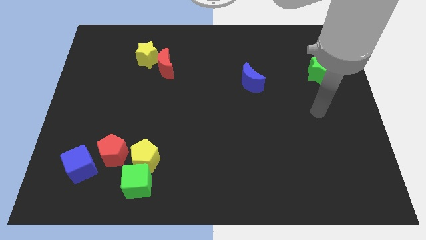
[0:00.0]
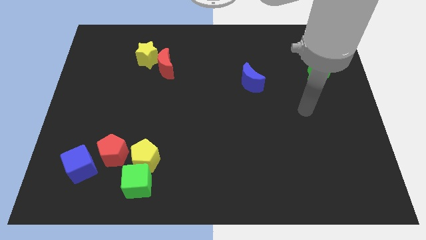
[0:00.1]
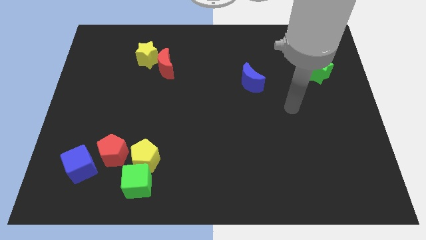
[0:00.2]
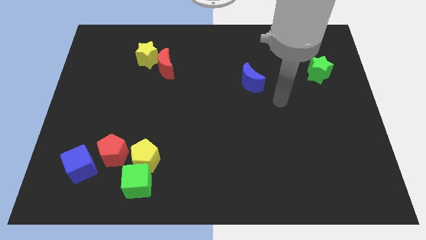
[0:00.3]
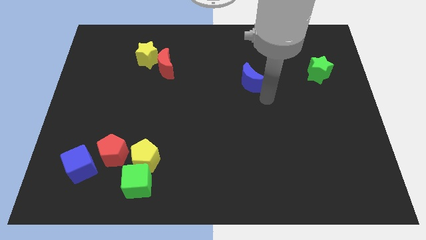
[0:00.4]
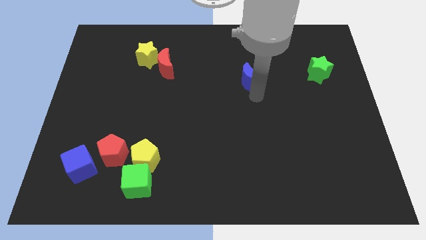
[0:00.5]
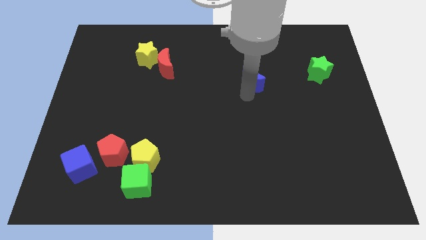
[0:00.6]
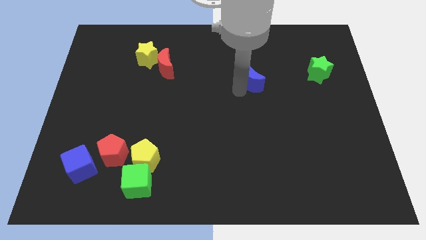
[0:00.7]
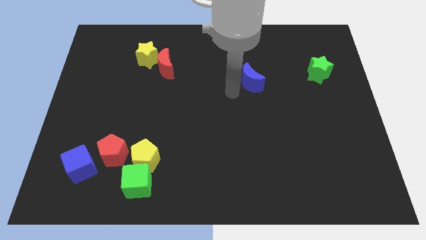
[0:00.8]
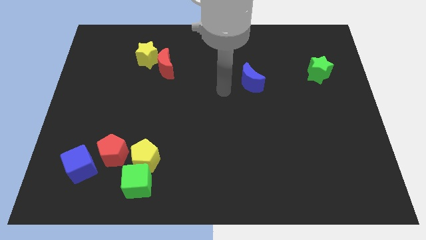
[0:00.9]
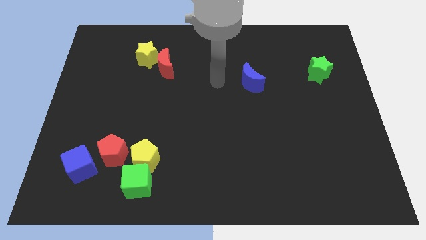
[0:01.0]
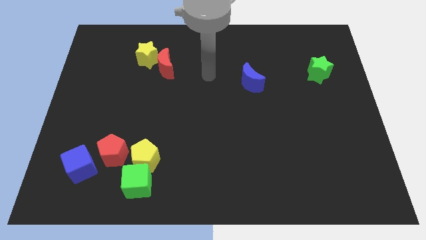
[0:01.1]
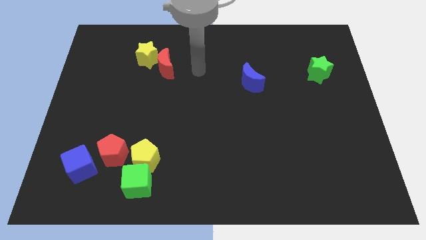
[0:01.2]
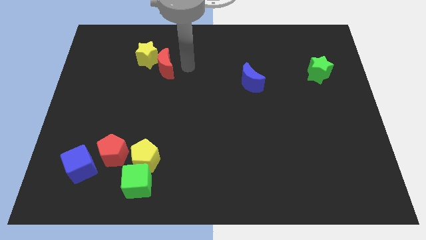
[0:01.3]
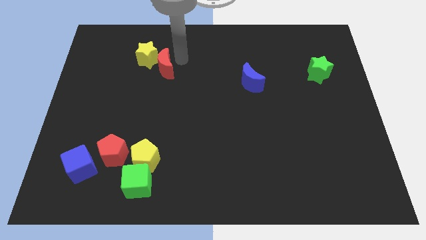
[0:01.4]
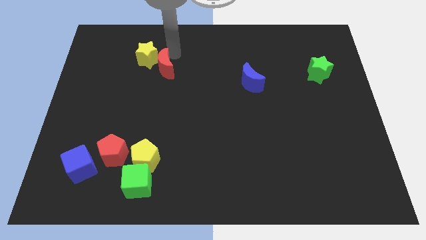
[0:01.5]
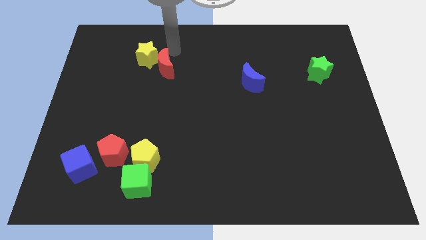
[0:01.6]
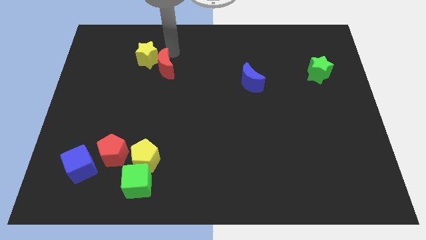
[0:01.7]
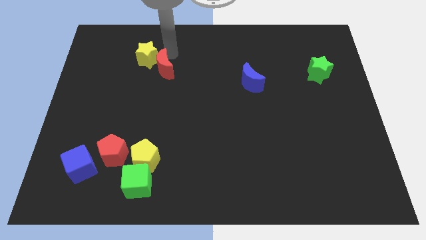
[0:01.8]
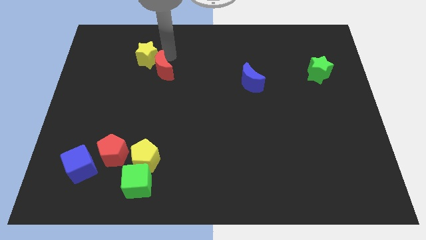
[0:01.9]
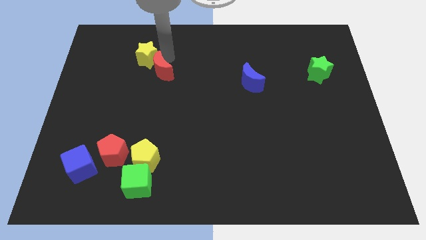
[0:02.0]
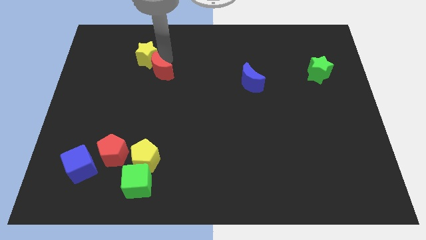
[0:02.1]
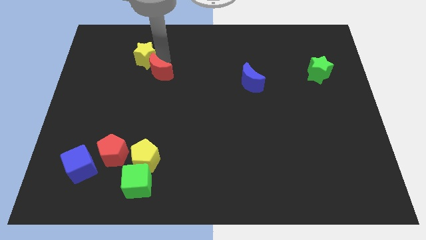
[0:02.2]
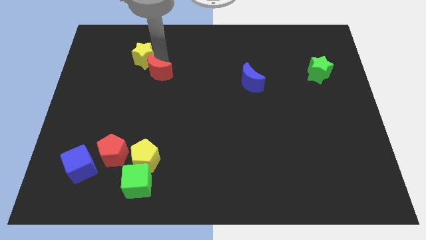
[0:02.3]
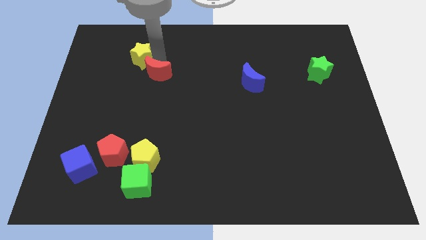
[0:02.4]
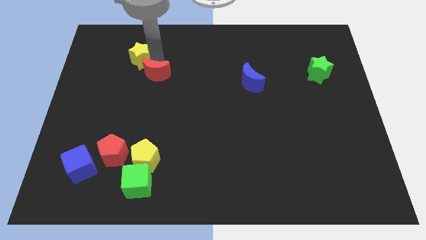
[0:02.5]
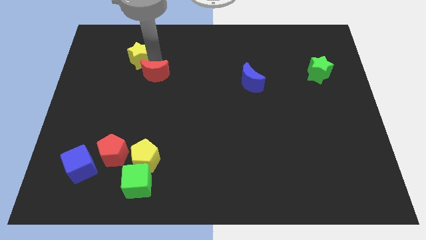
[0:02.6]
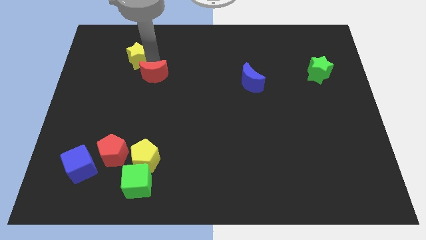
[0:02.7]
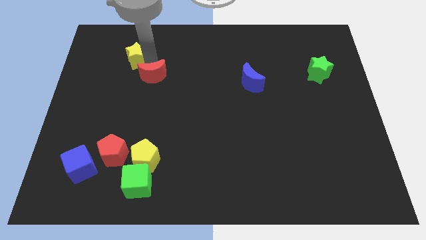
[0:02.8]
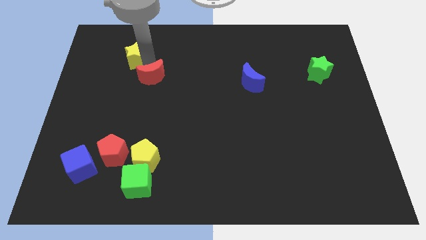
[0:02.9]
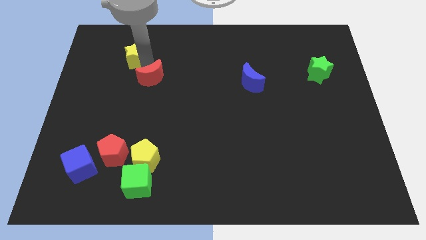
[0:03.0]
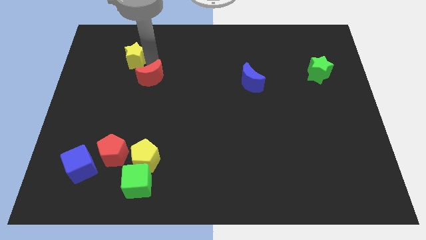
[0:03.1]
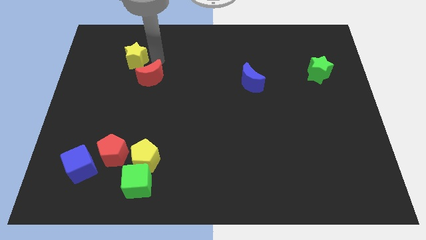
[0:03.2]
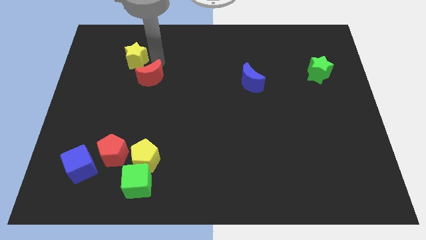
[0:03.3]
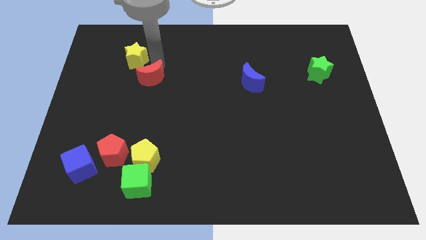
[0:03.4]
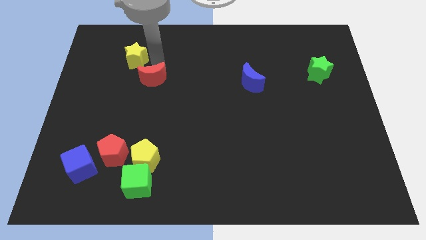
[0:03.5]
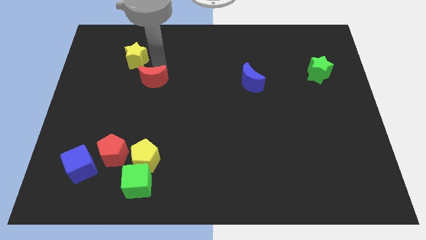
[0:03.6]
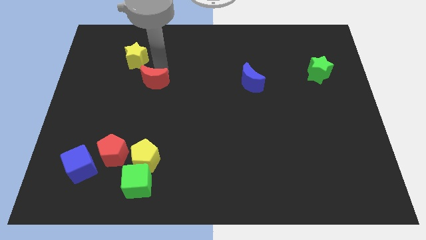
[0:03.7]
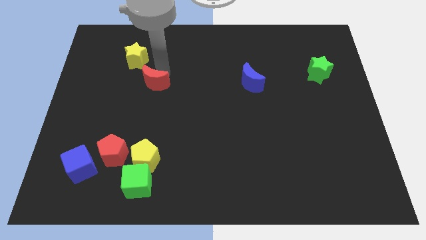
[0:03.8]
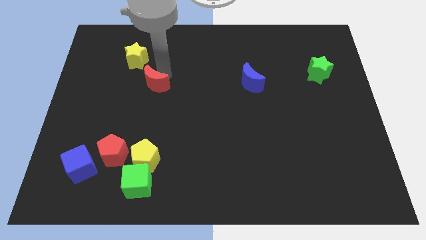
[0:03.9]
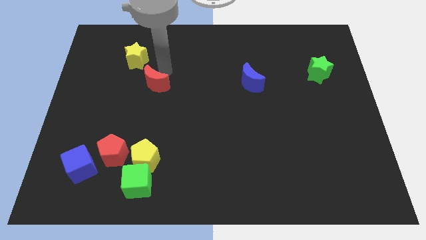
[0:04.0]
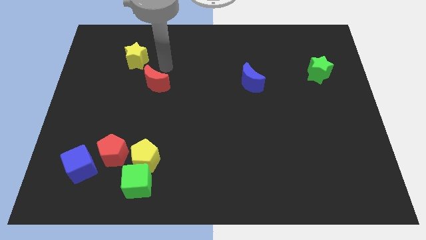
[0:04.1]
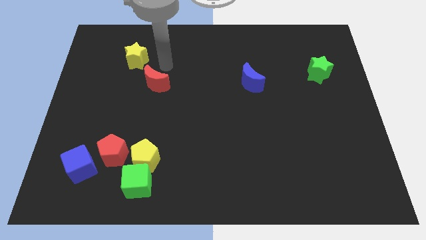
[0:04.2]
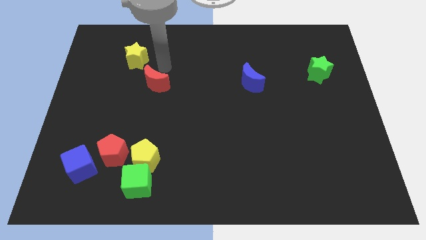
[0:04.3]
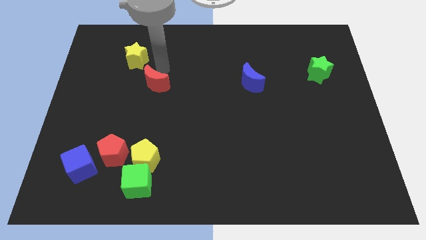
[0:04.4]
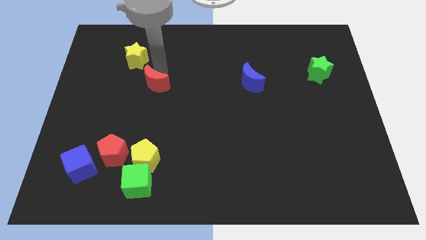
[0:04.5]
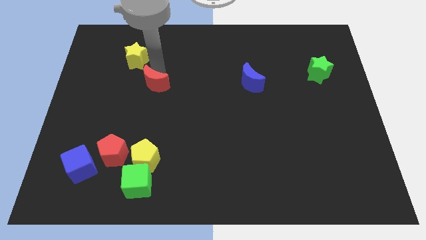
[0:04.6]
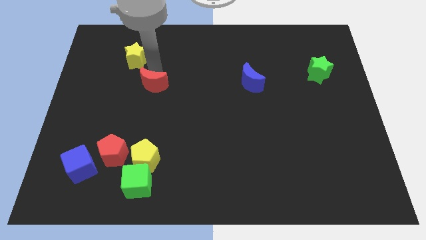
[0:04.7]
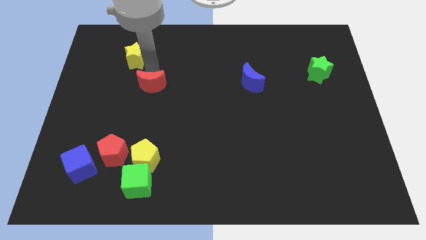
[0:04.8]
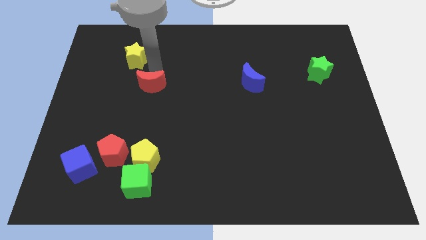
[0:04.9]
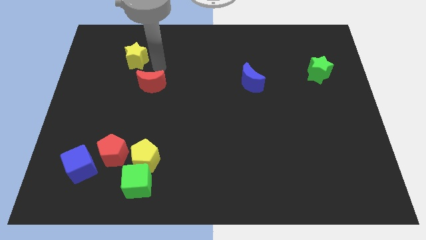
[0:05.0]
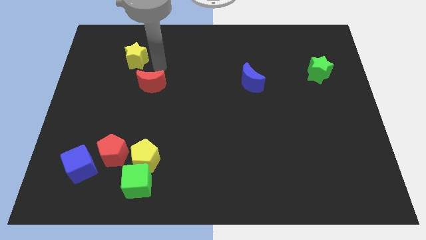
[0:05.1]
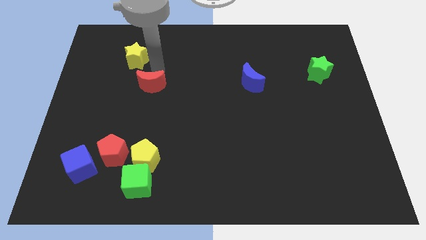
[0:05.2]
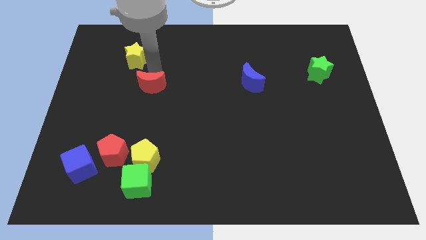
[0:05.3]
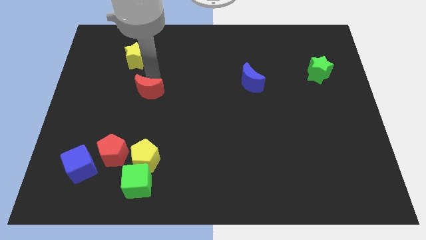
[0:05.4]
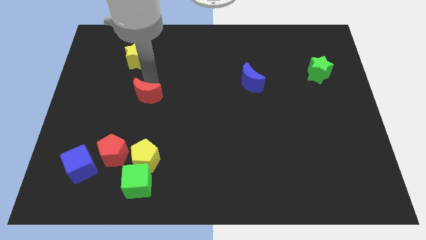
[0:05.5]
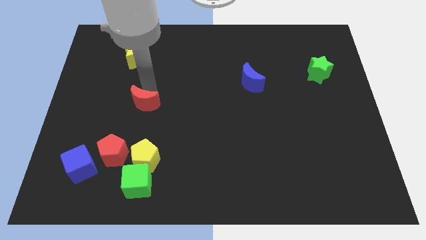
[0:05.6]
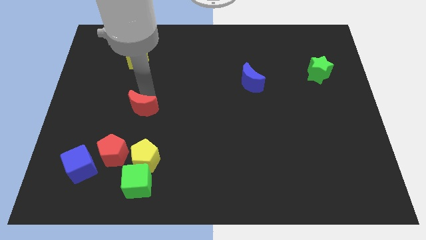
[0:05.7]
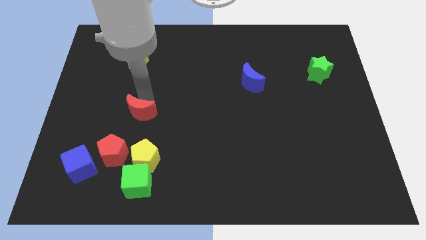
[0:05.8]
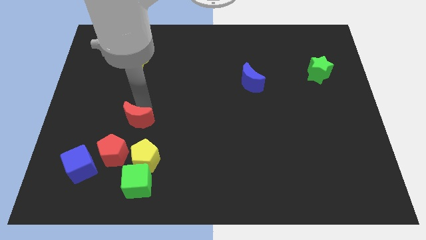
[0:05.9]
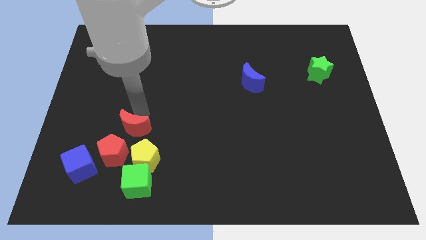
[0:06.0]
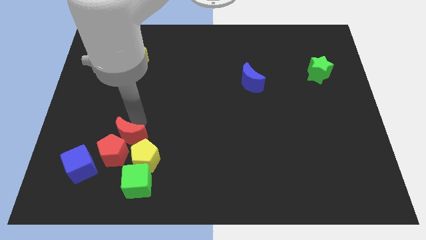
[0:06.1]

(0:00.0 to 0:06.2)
move the red moon towards the red pentagon
